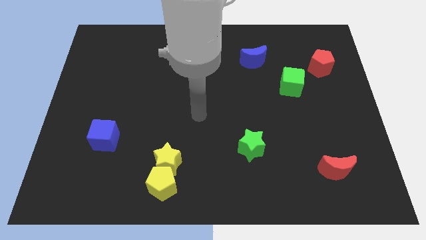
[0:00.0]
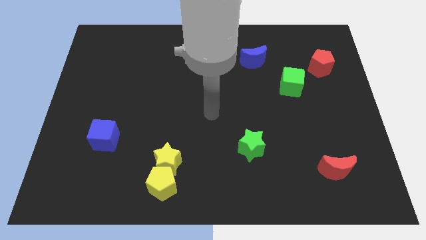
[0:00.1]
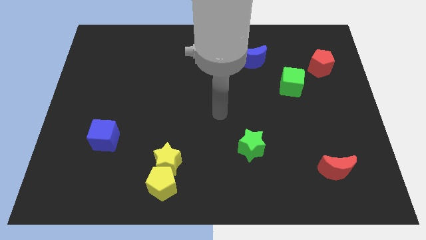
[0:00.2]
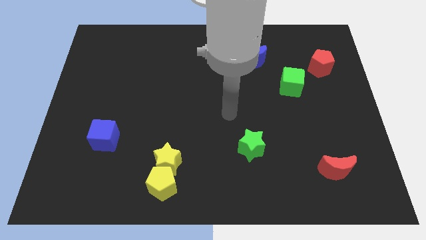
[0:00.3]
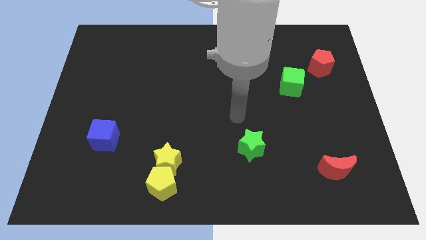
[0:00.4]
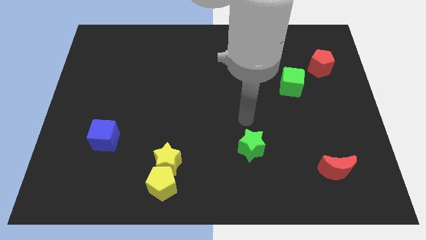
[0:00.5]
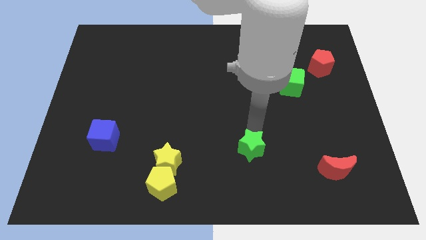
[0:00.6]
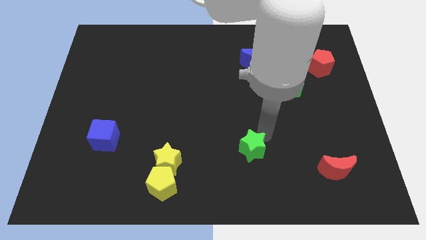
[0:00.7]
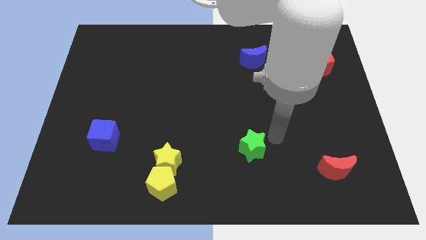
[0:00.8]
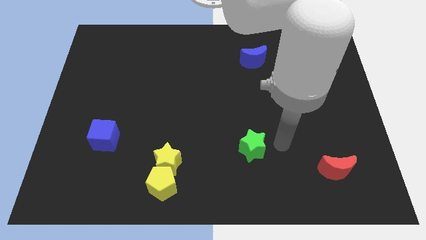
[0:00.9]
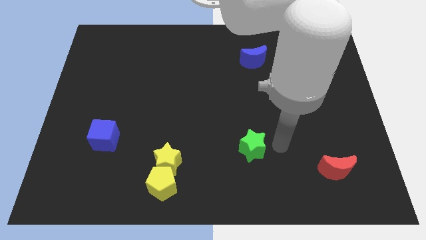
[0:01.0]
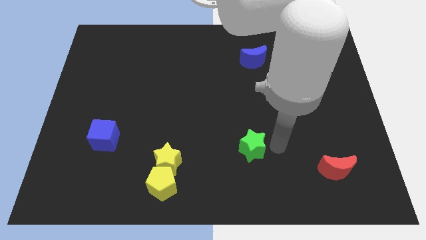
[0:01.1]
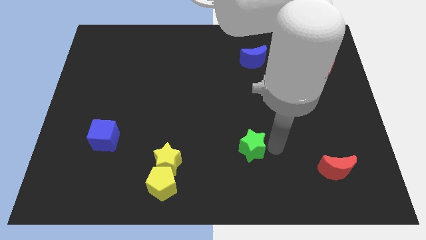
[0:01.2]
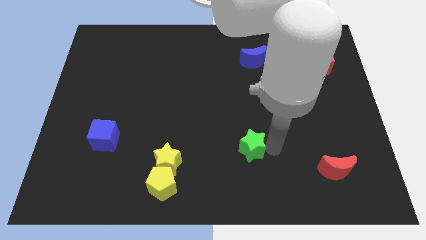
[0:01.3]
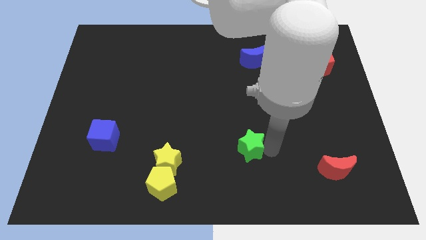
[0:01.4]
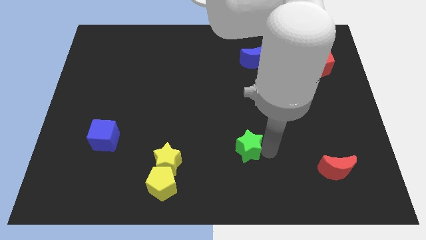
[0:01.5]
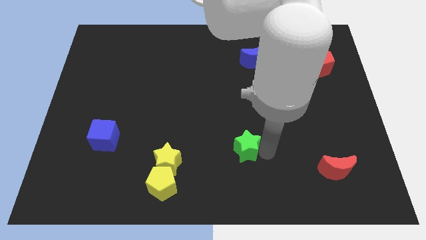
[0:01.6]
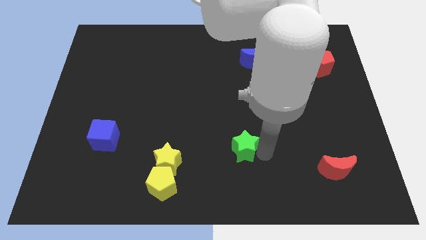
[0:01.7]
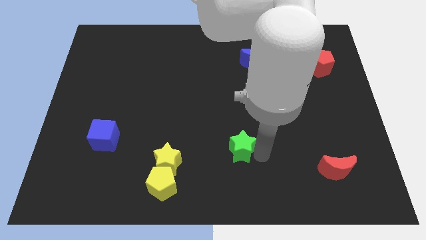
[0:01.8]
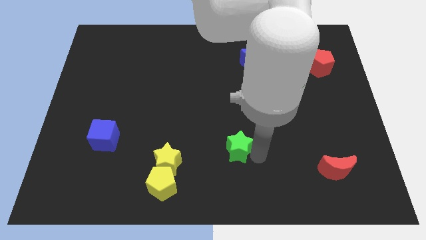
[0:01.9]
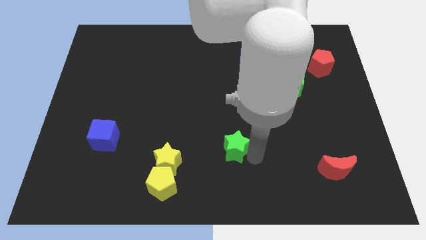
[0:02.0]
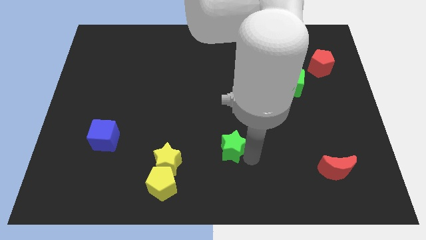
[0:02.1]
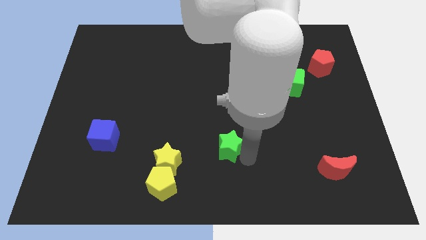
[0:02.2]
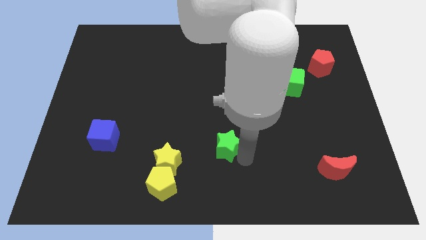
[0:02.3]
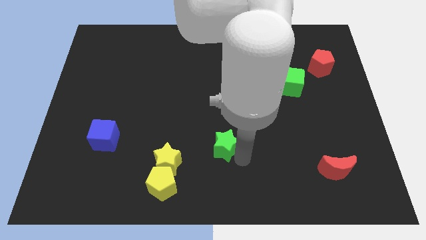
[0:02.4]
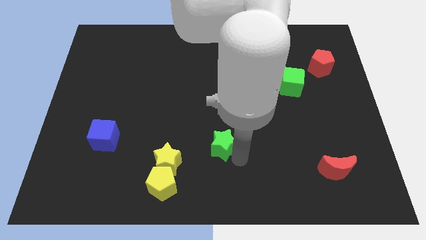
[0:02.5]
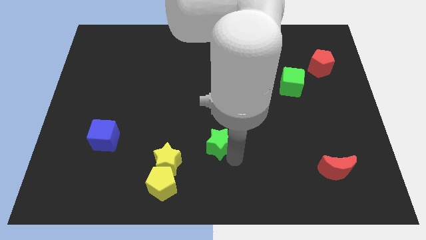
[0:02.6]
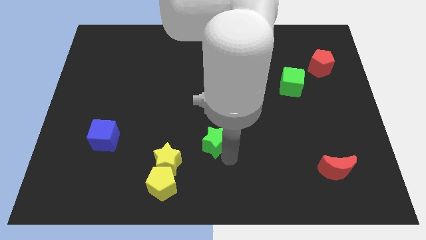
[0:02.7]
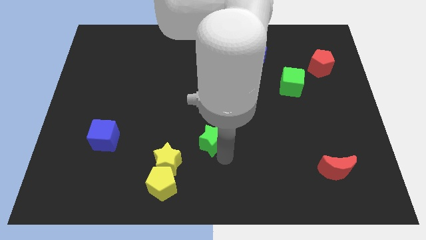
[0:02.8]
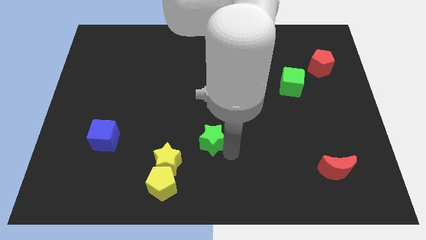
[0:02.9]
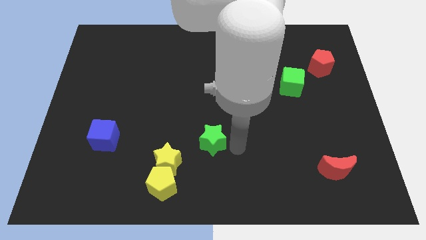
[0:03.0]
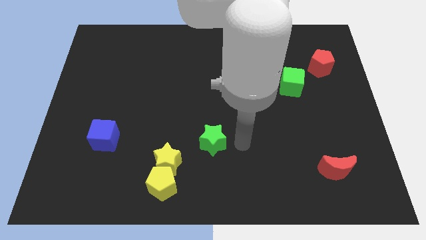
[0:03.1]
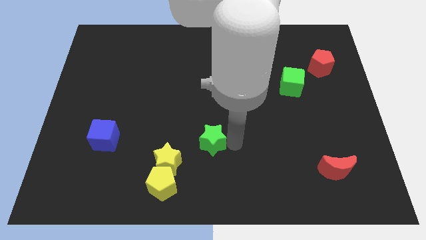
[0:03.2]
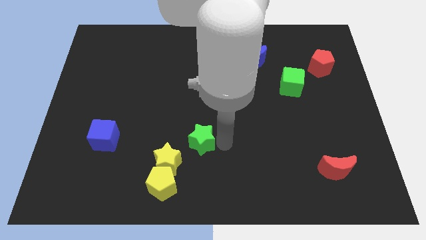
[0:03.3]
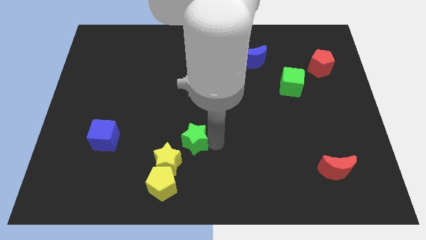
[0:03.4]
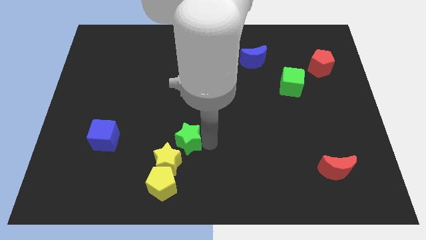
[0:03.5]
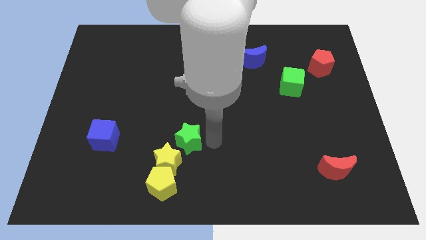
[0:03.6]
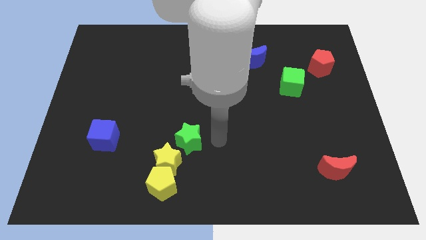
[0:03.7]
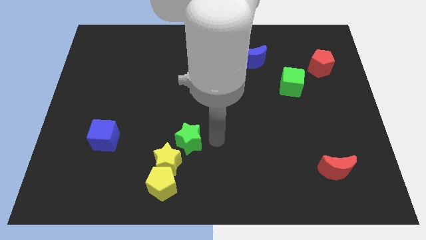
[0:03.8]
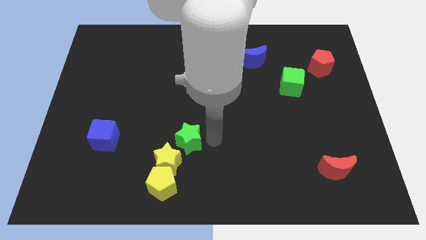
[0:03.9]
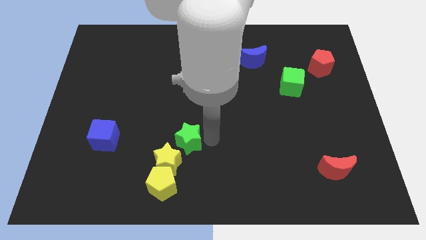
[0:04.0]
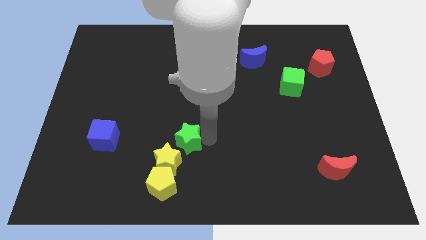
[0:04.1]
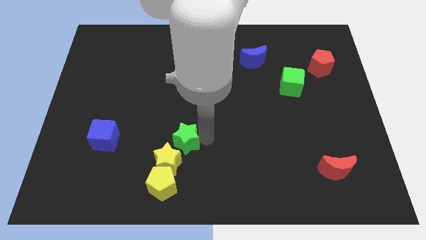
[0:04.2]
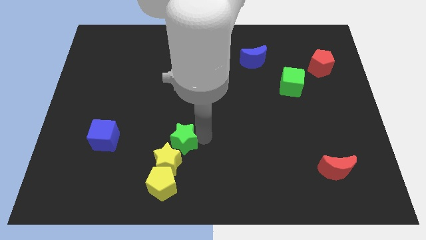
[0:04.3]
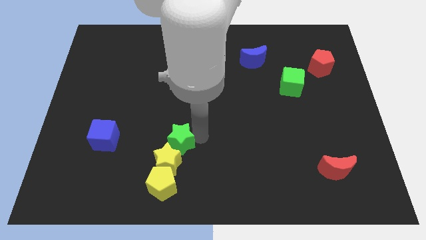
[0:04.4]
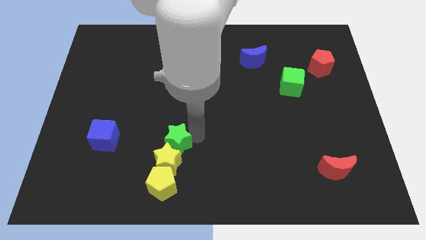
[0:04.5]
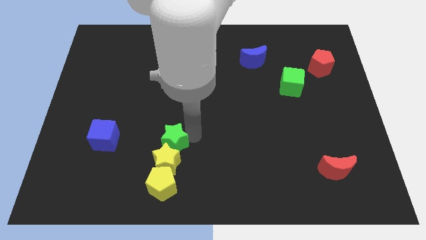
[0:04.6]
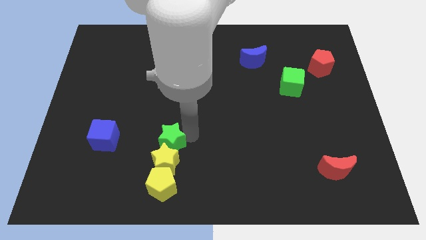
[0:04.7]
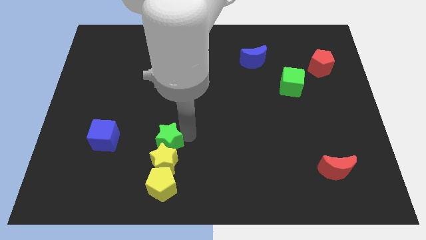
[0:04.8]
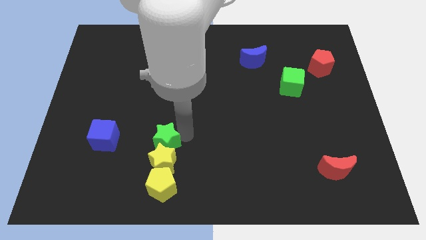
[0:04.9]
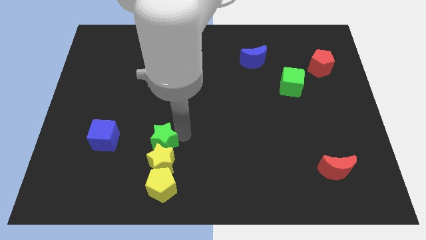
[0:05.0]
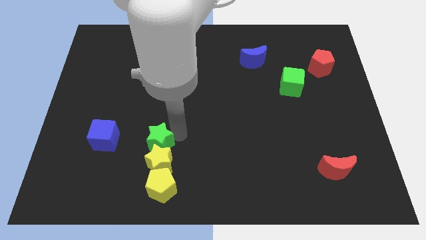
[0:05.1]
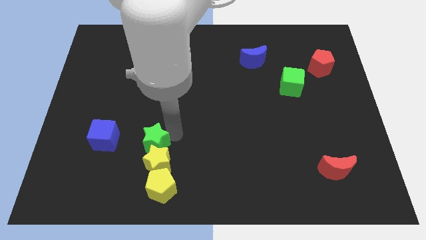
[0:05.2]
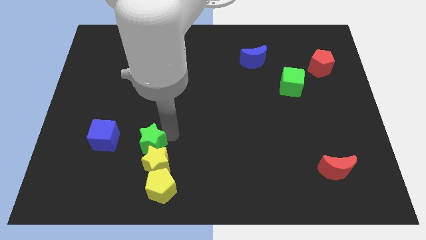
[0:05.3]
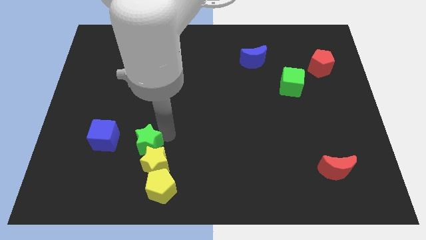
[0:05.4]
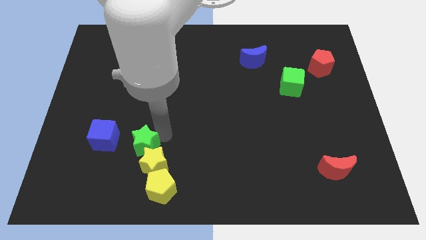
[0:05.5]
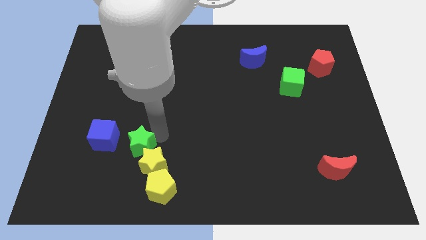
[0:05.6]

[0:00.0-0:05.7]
put the green star diagonally down and to the right of the blue cube

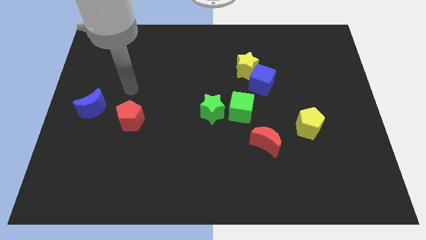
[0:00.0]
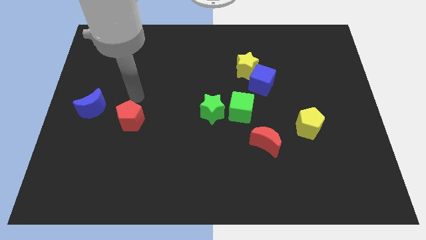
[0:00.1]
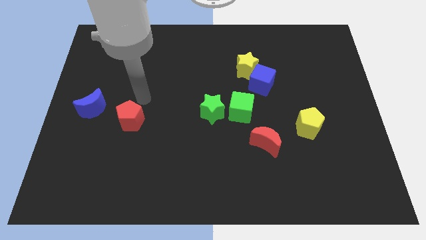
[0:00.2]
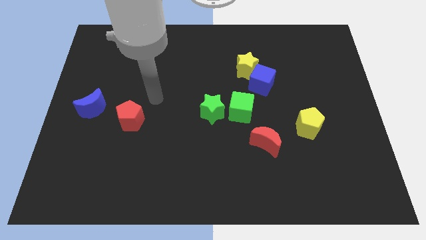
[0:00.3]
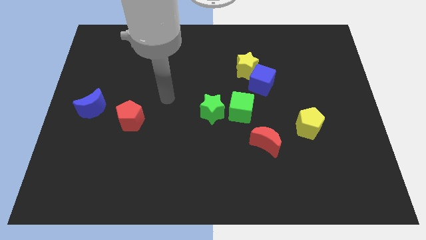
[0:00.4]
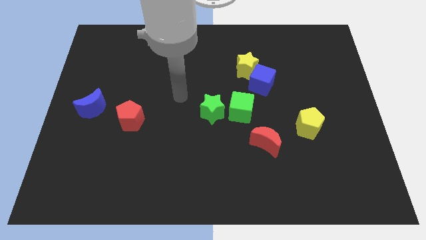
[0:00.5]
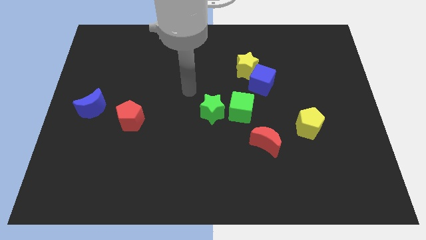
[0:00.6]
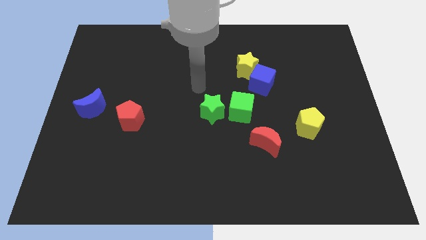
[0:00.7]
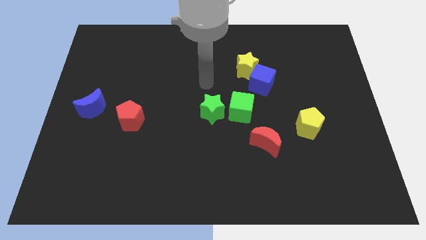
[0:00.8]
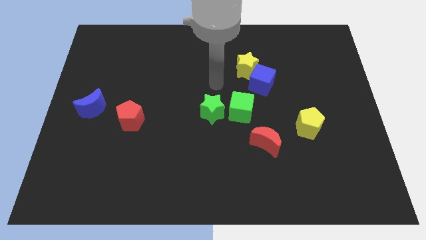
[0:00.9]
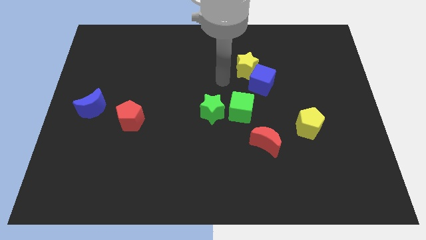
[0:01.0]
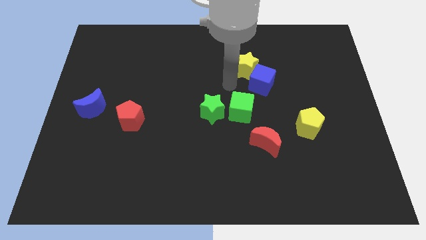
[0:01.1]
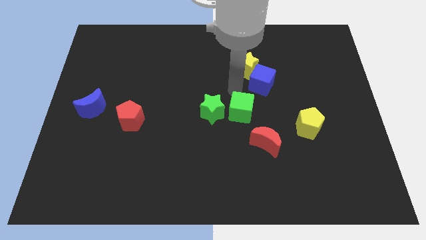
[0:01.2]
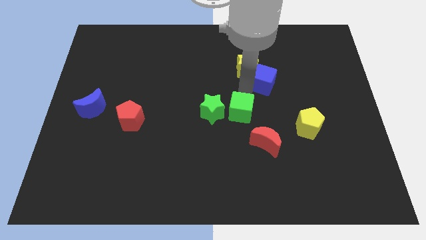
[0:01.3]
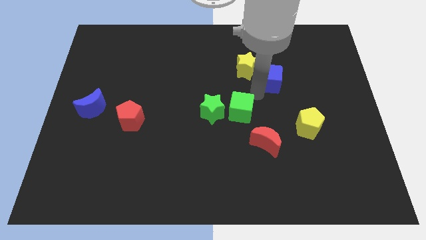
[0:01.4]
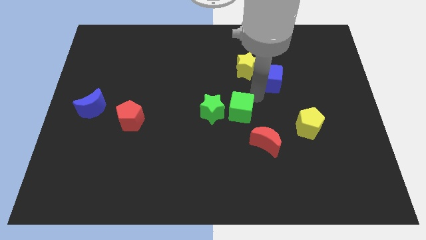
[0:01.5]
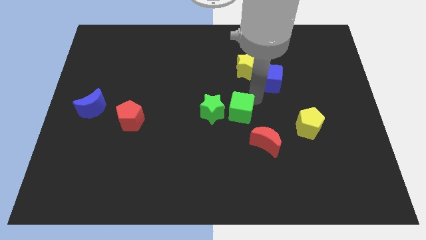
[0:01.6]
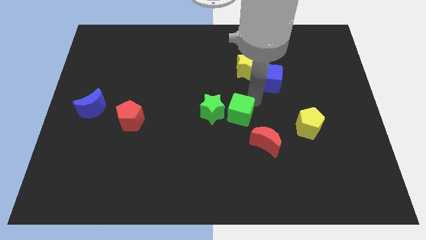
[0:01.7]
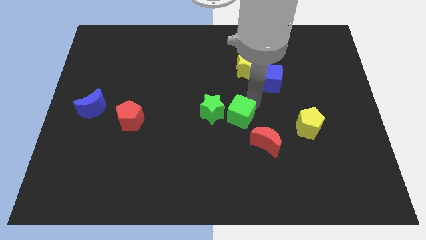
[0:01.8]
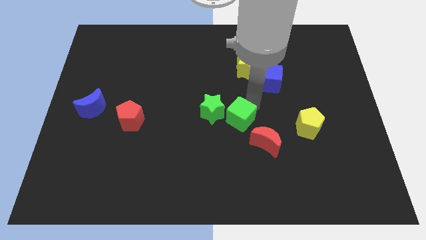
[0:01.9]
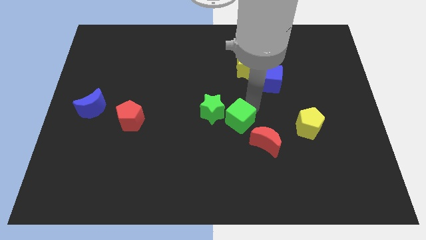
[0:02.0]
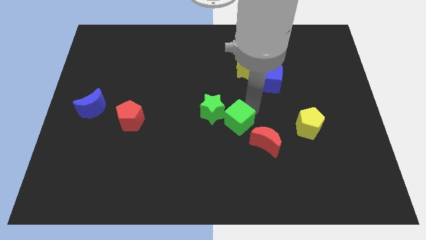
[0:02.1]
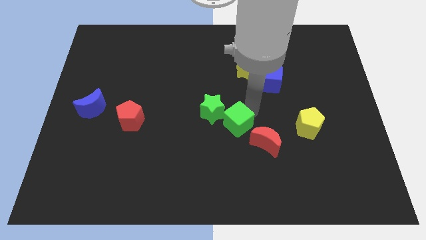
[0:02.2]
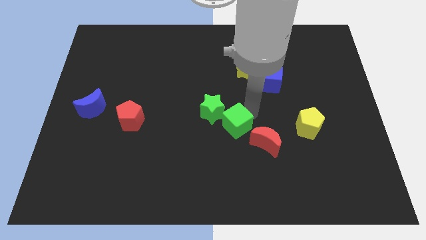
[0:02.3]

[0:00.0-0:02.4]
push the green cube just left of the red moon
